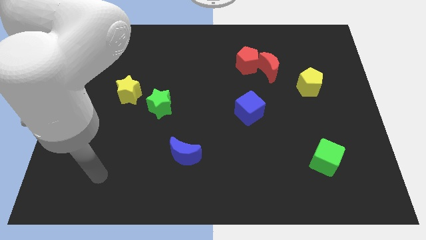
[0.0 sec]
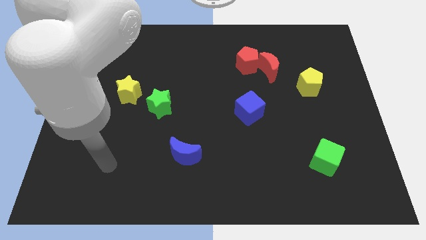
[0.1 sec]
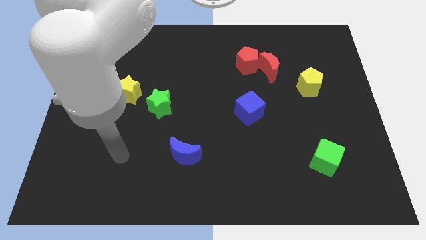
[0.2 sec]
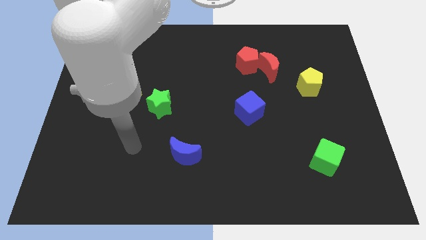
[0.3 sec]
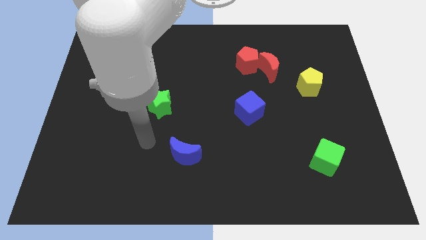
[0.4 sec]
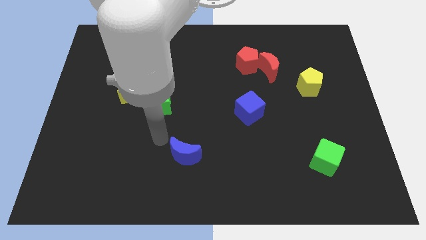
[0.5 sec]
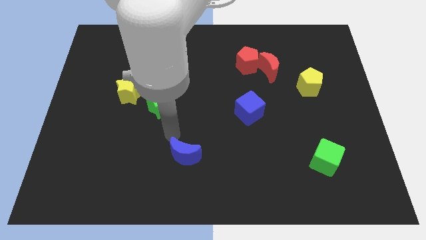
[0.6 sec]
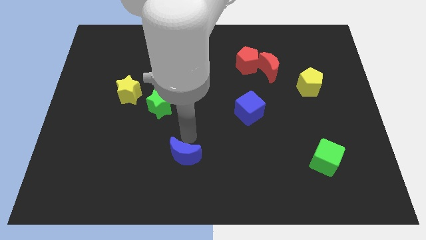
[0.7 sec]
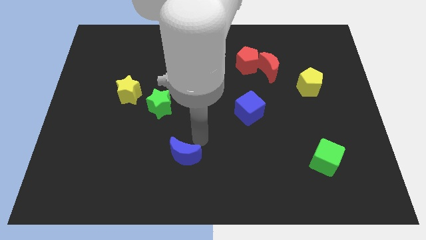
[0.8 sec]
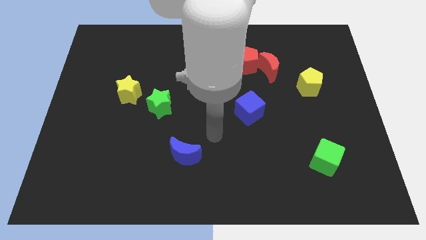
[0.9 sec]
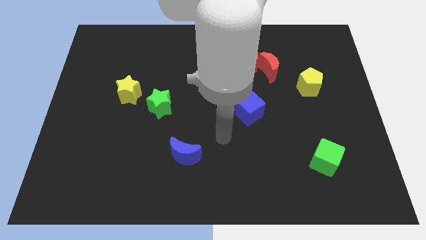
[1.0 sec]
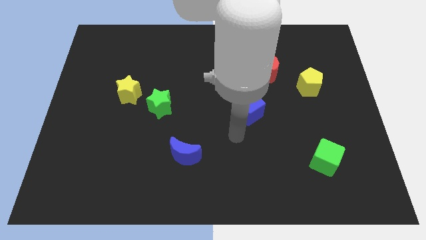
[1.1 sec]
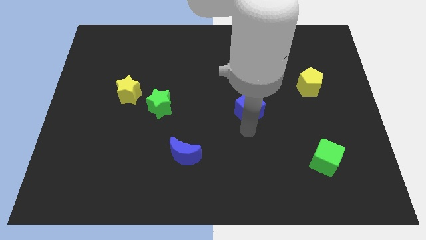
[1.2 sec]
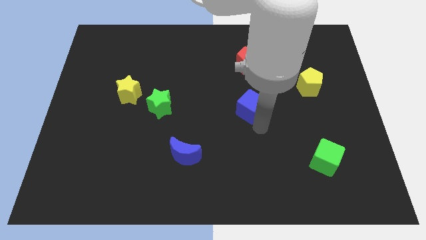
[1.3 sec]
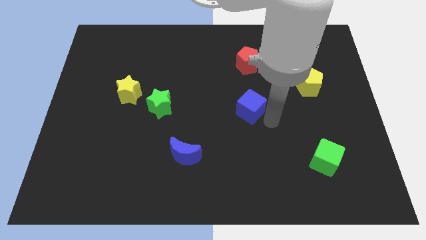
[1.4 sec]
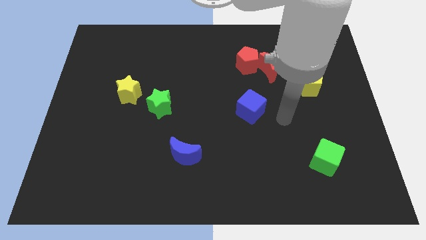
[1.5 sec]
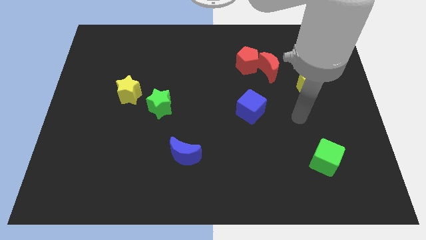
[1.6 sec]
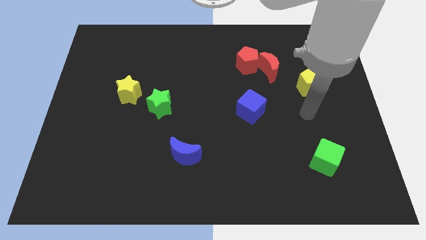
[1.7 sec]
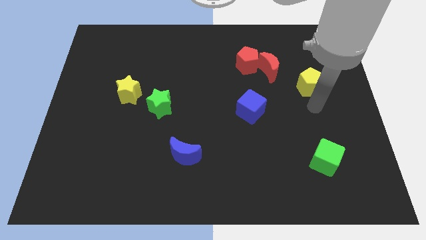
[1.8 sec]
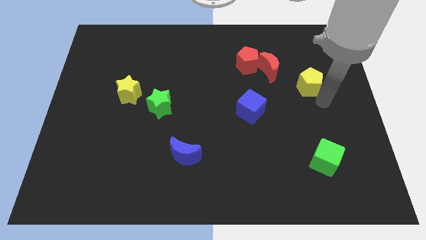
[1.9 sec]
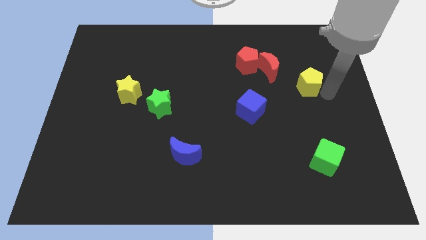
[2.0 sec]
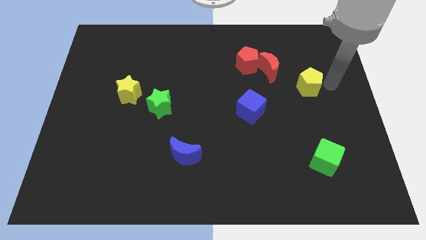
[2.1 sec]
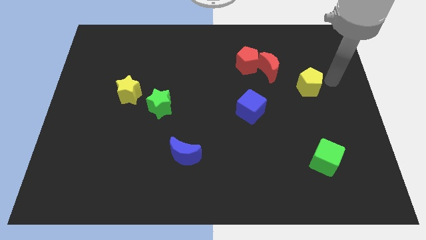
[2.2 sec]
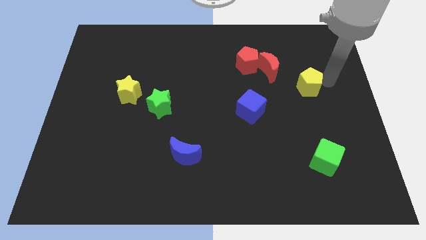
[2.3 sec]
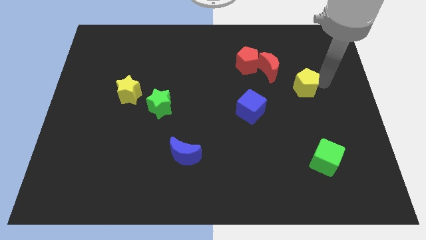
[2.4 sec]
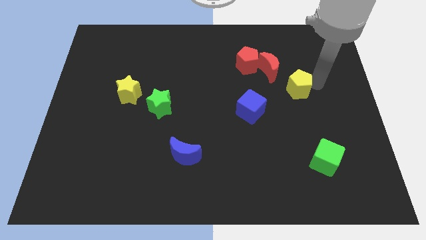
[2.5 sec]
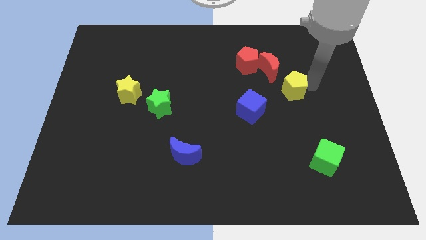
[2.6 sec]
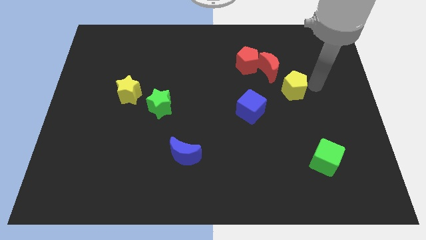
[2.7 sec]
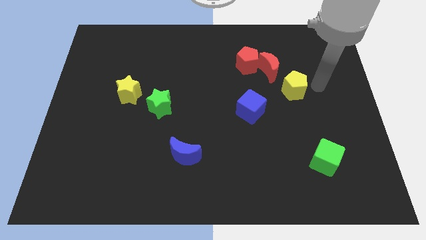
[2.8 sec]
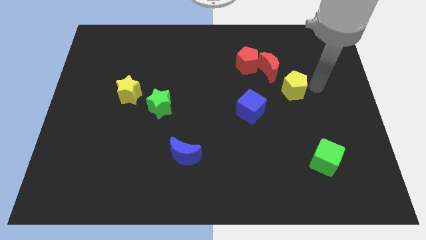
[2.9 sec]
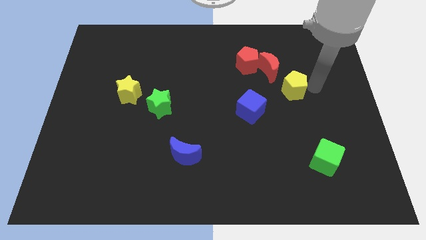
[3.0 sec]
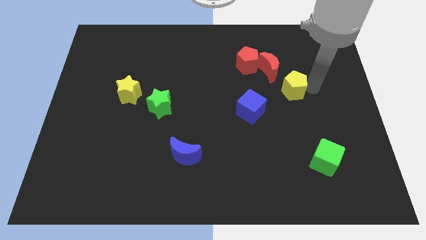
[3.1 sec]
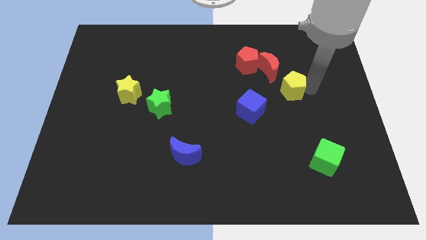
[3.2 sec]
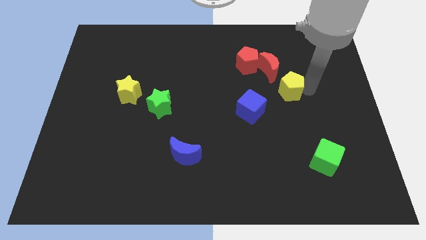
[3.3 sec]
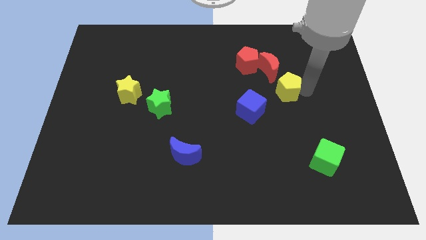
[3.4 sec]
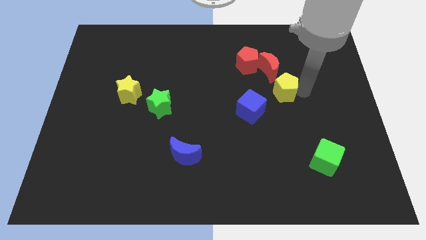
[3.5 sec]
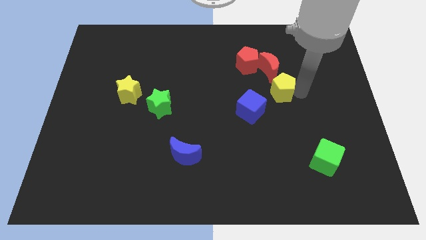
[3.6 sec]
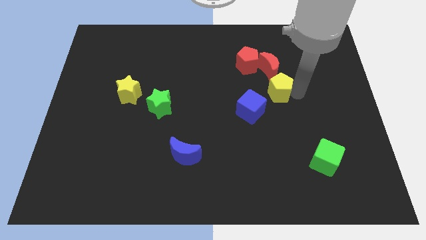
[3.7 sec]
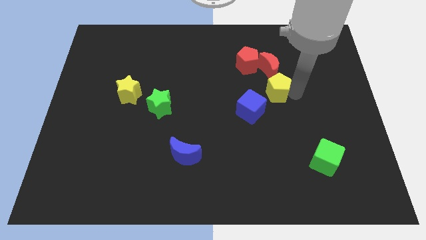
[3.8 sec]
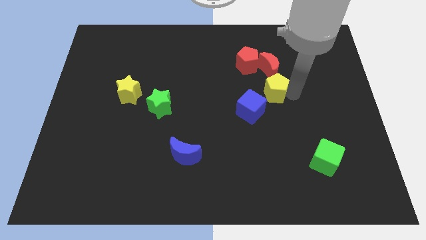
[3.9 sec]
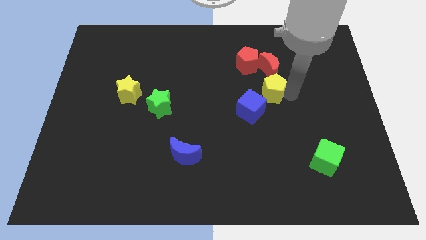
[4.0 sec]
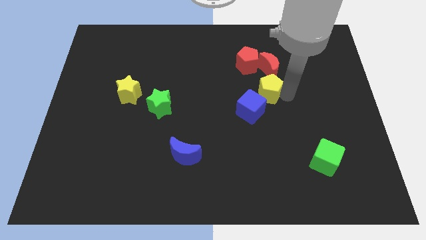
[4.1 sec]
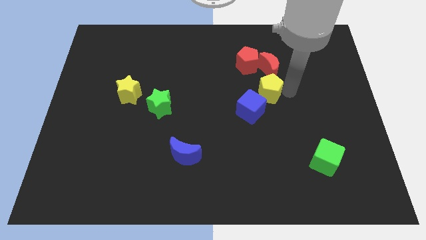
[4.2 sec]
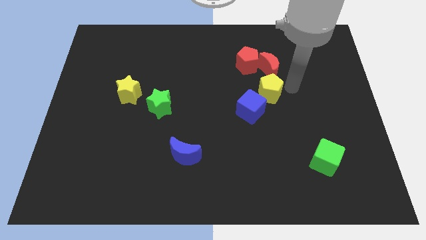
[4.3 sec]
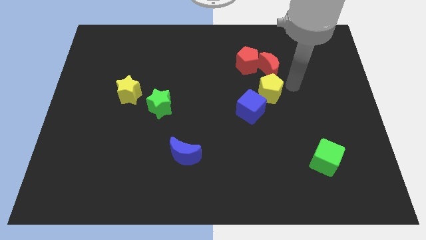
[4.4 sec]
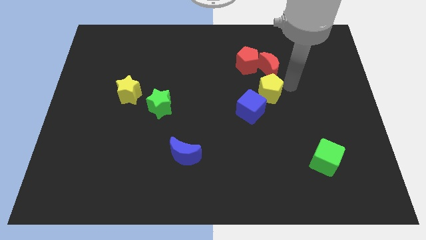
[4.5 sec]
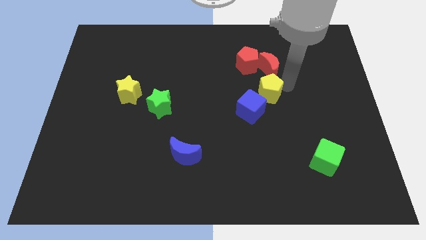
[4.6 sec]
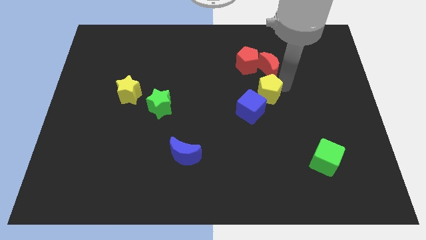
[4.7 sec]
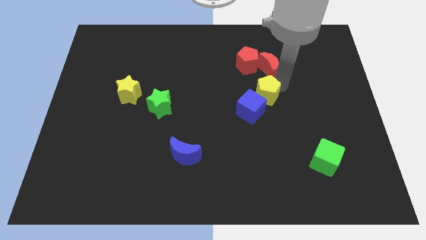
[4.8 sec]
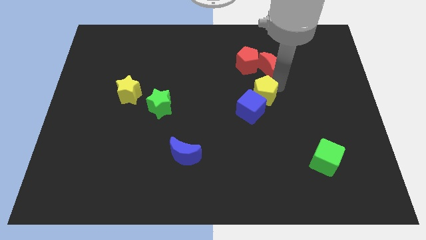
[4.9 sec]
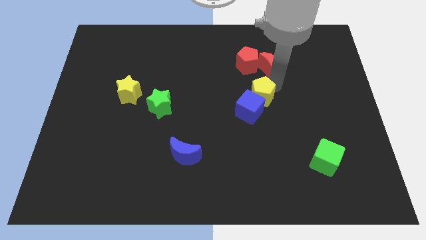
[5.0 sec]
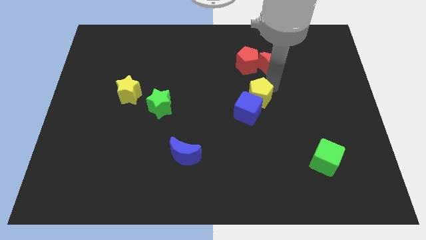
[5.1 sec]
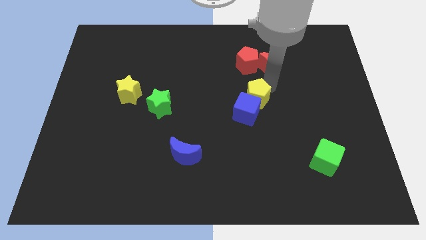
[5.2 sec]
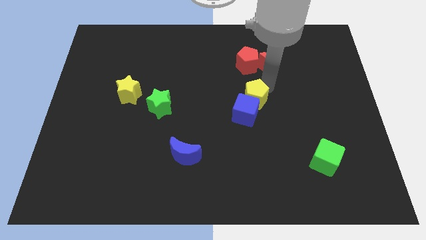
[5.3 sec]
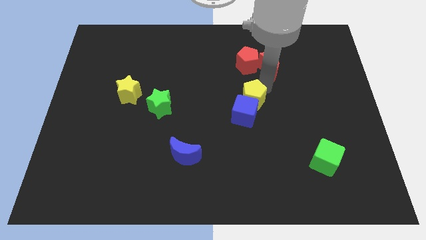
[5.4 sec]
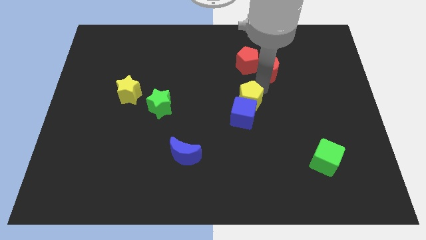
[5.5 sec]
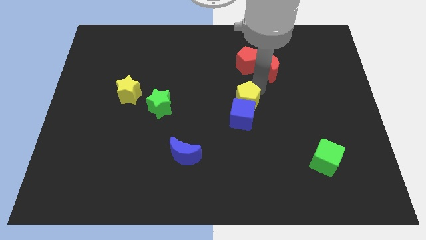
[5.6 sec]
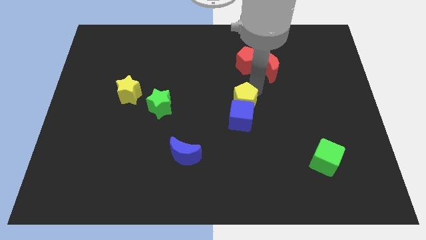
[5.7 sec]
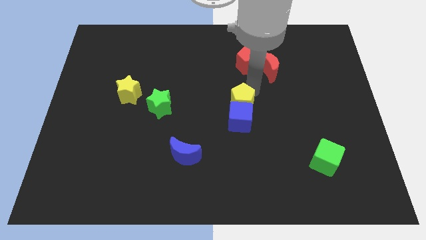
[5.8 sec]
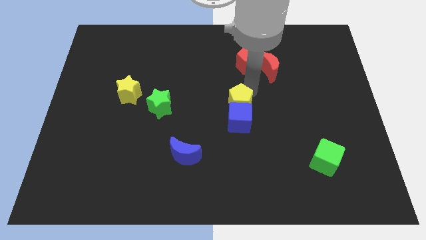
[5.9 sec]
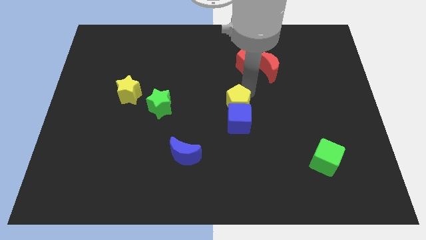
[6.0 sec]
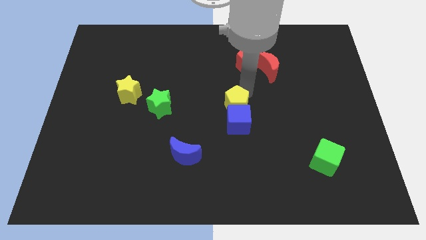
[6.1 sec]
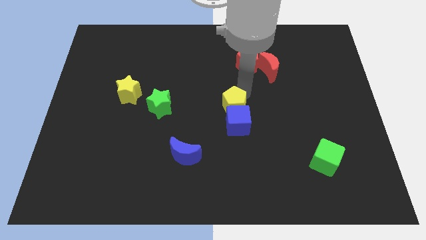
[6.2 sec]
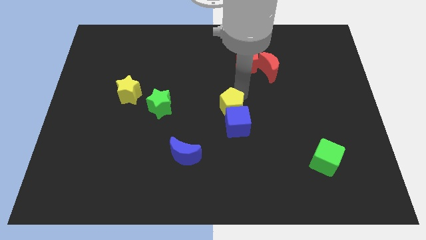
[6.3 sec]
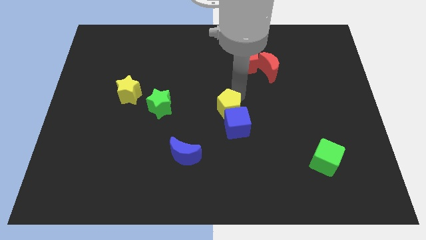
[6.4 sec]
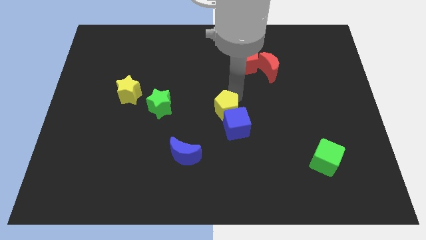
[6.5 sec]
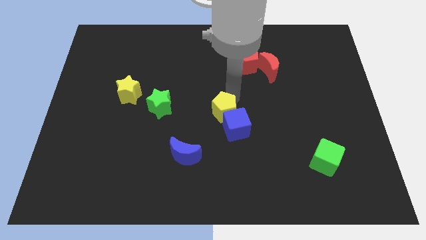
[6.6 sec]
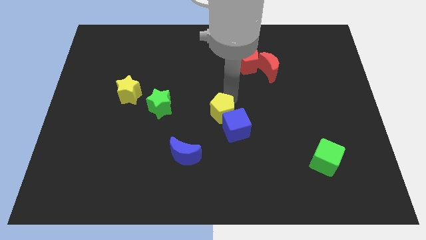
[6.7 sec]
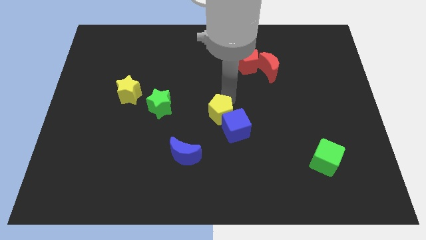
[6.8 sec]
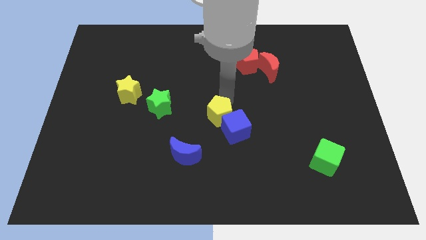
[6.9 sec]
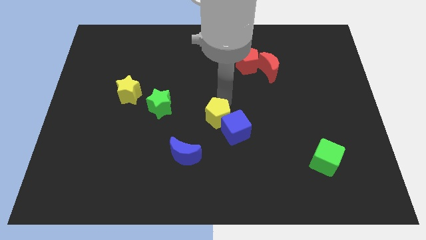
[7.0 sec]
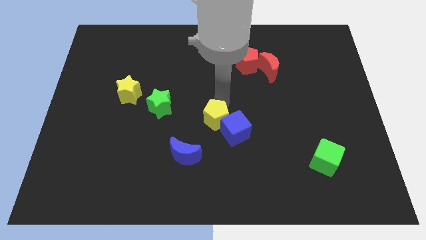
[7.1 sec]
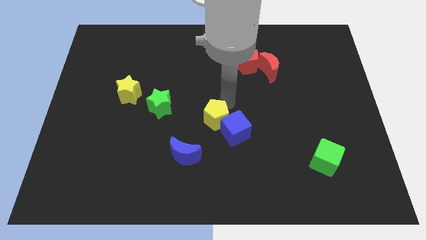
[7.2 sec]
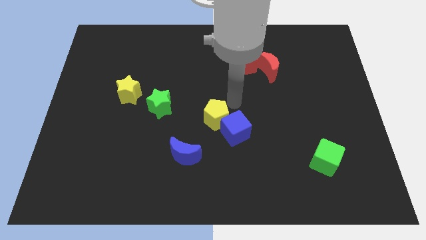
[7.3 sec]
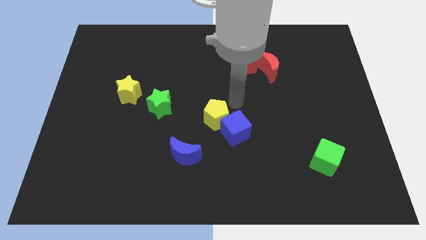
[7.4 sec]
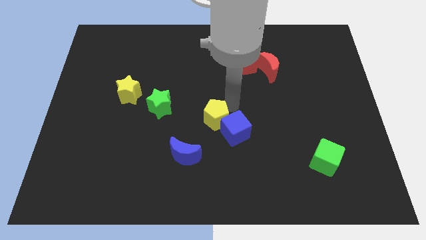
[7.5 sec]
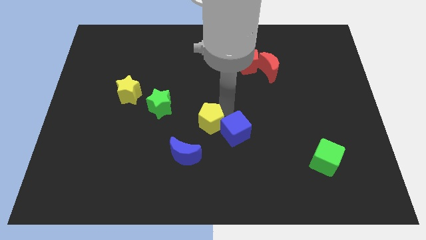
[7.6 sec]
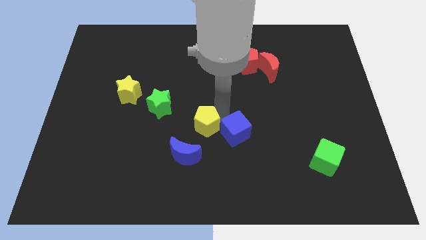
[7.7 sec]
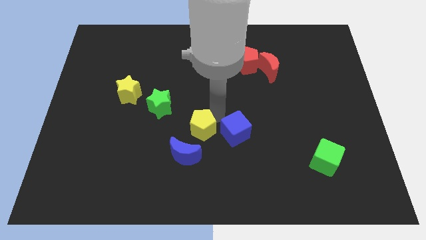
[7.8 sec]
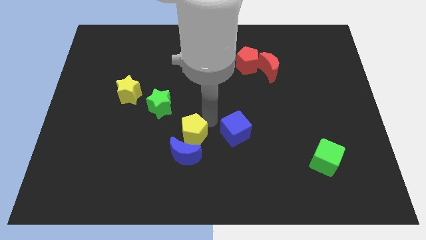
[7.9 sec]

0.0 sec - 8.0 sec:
move the yellow pentagon to the blue moon
